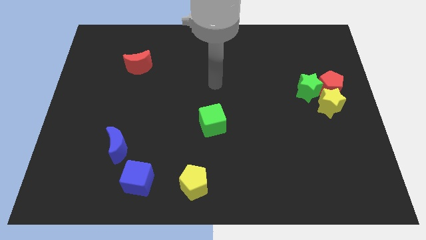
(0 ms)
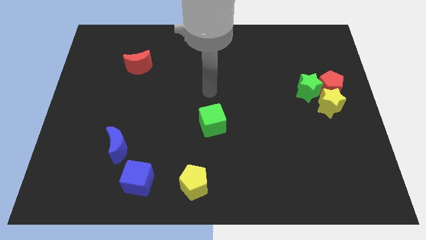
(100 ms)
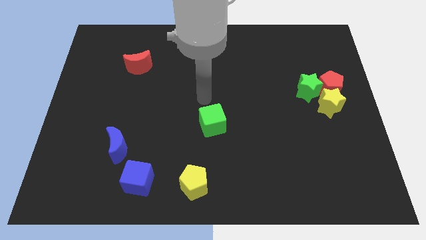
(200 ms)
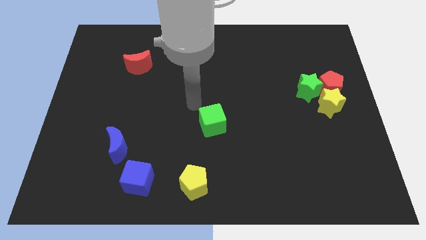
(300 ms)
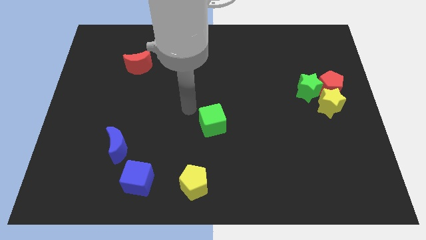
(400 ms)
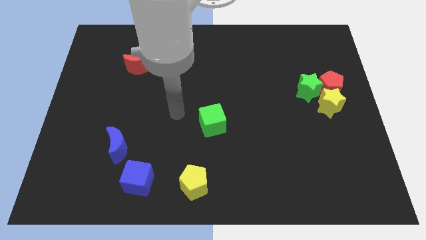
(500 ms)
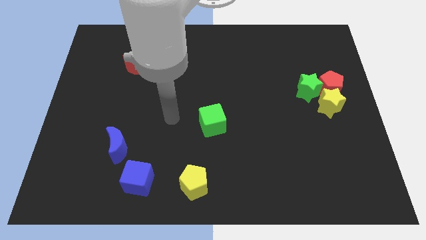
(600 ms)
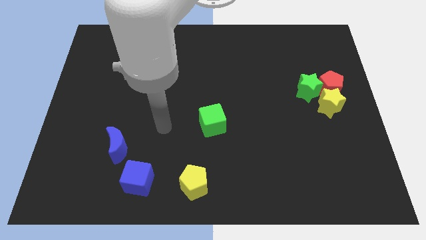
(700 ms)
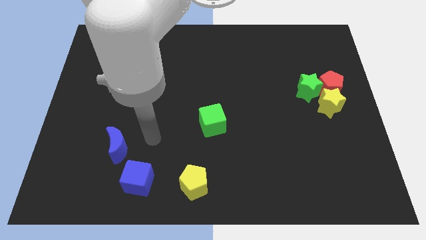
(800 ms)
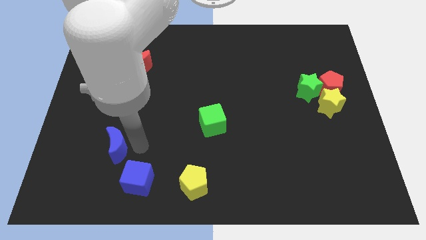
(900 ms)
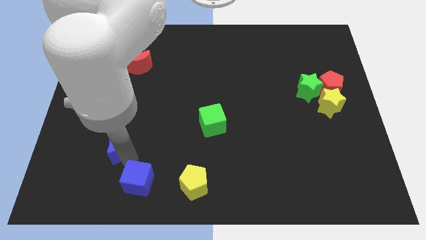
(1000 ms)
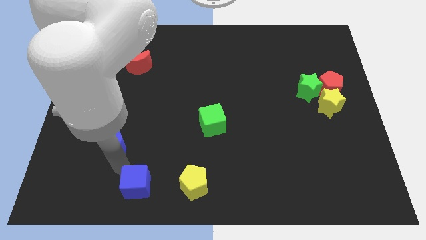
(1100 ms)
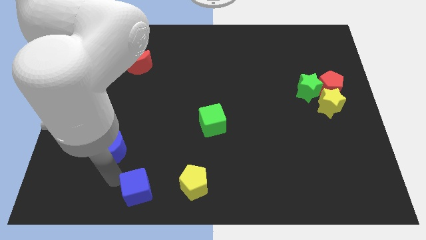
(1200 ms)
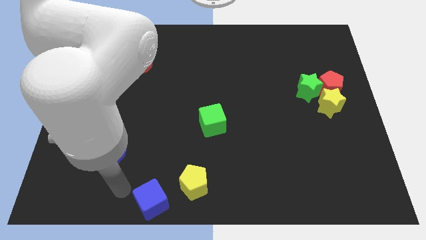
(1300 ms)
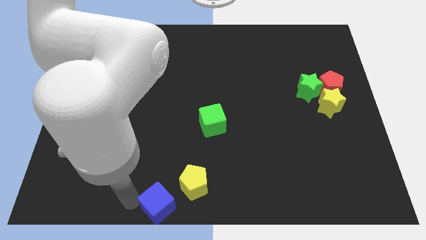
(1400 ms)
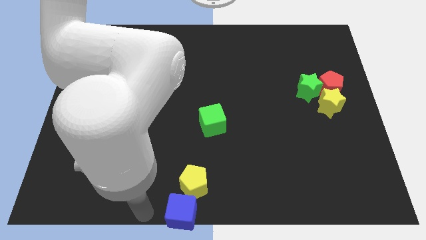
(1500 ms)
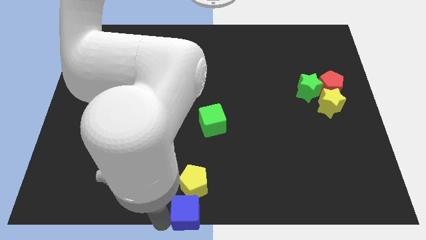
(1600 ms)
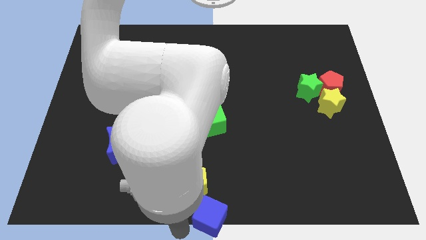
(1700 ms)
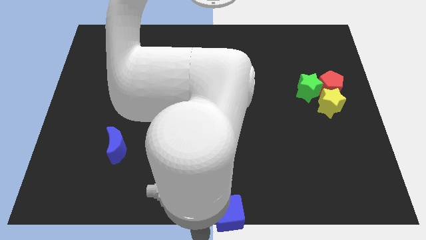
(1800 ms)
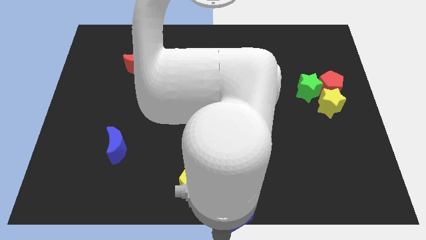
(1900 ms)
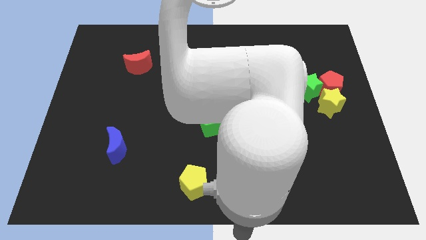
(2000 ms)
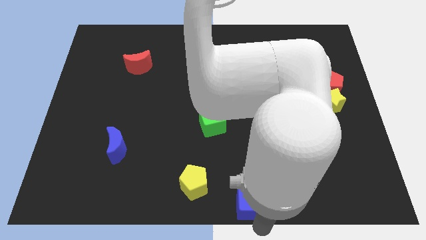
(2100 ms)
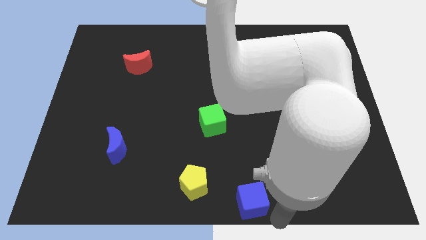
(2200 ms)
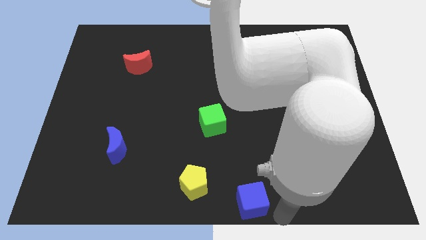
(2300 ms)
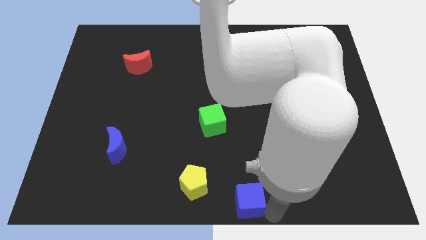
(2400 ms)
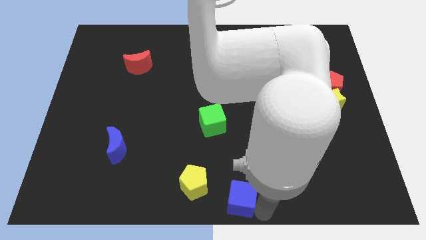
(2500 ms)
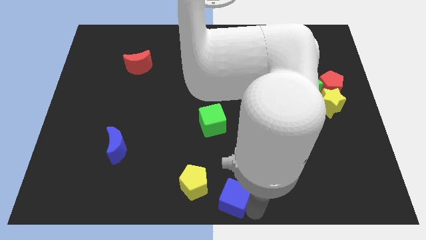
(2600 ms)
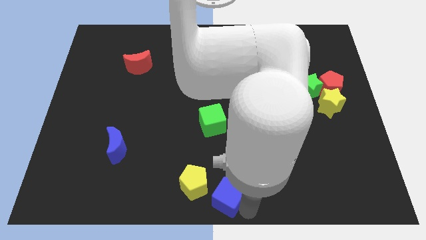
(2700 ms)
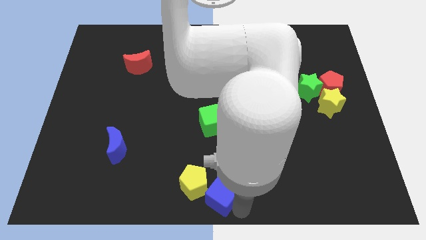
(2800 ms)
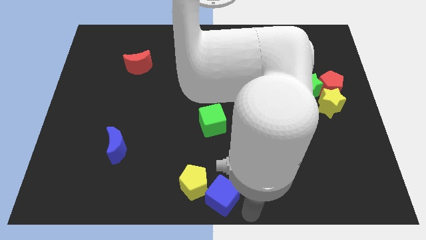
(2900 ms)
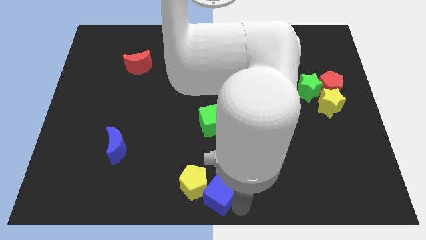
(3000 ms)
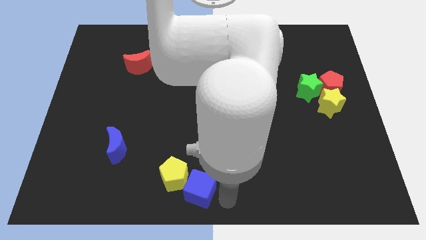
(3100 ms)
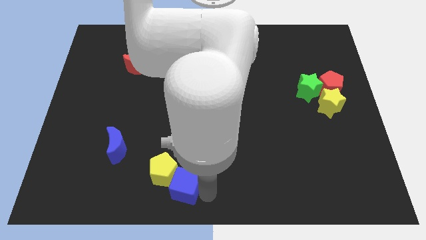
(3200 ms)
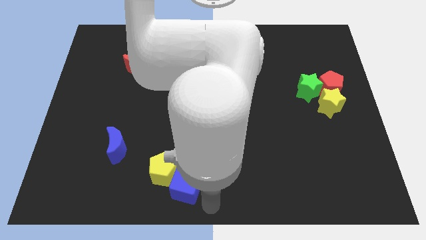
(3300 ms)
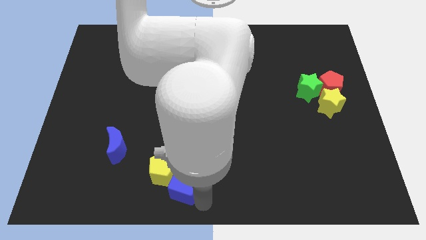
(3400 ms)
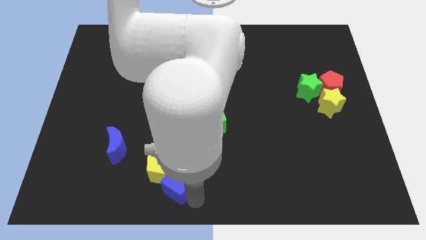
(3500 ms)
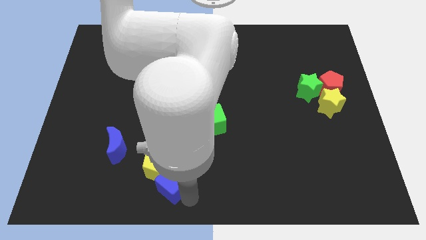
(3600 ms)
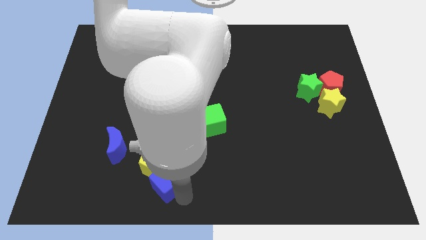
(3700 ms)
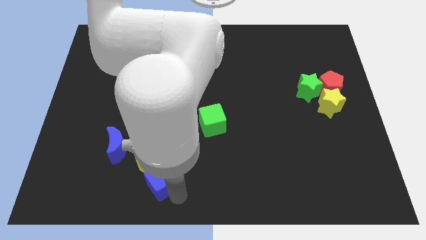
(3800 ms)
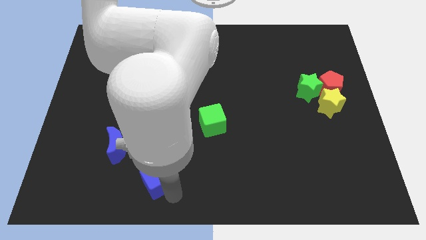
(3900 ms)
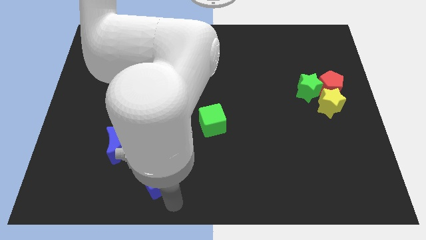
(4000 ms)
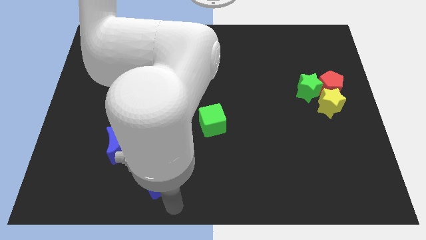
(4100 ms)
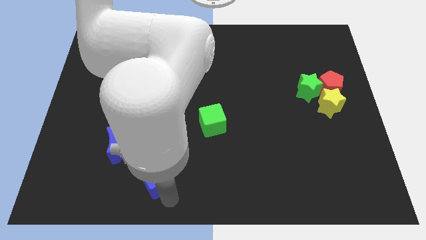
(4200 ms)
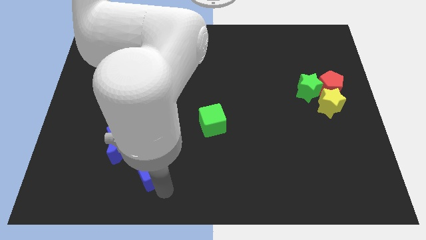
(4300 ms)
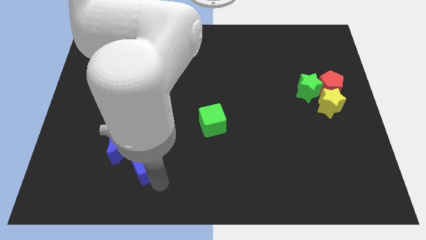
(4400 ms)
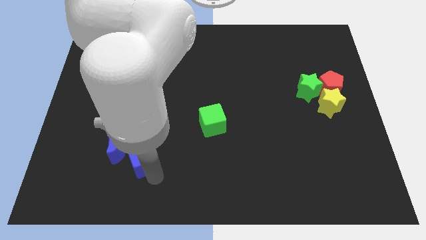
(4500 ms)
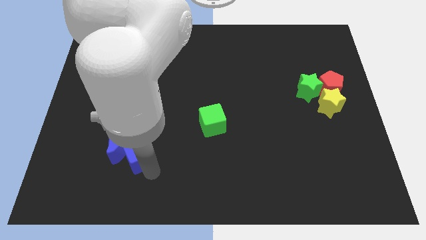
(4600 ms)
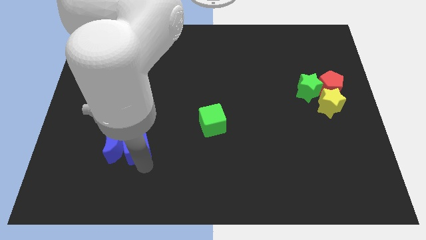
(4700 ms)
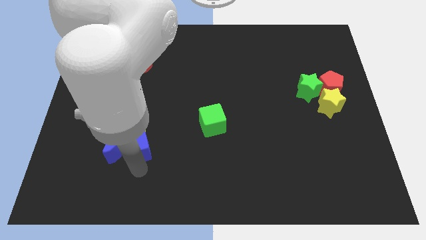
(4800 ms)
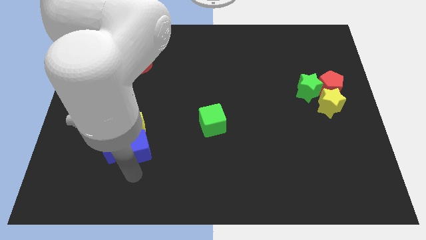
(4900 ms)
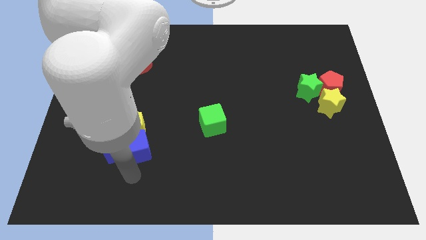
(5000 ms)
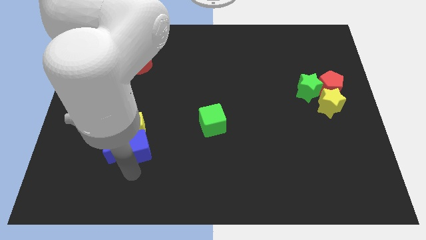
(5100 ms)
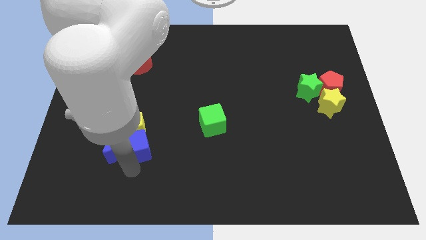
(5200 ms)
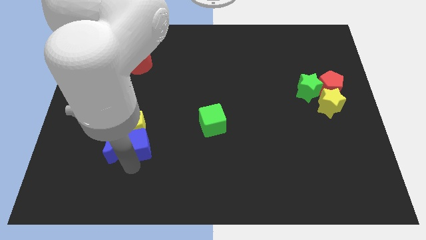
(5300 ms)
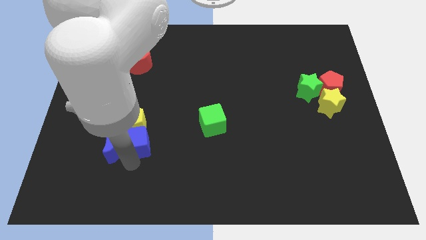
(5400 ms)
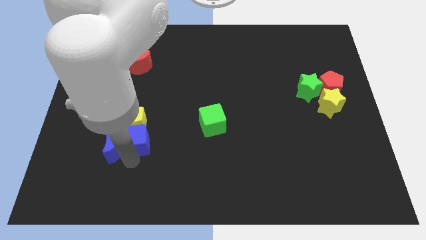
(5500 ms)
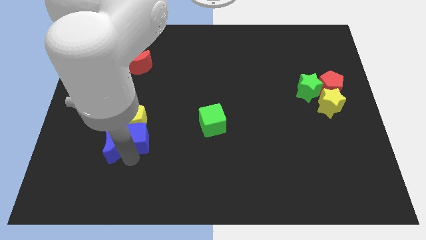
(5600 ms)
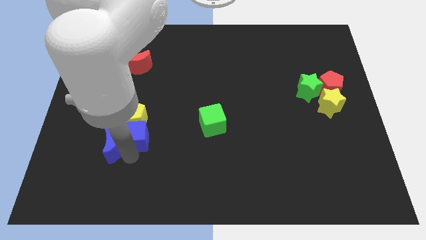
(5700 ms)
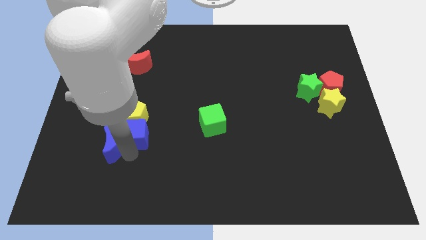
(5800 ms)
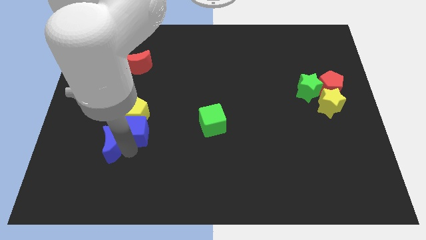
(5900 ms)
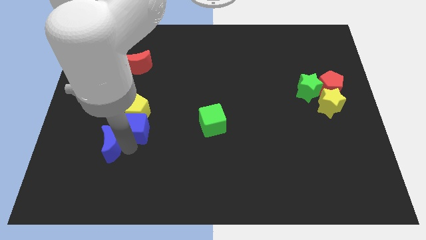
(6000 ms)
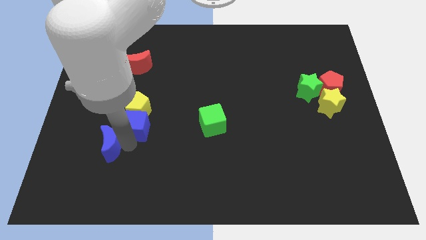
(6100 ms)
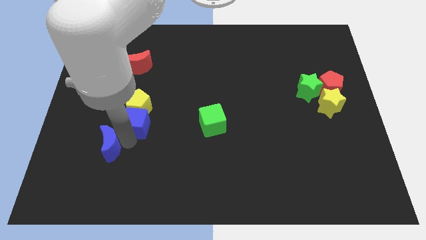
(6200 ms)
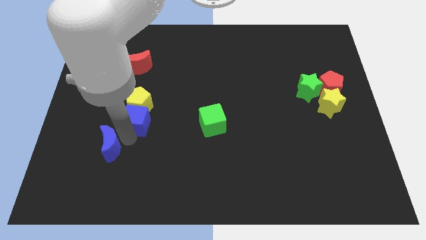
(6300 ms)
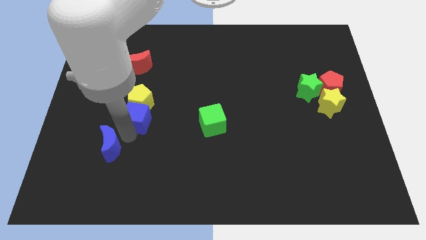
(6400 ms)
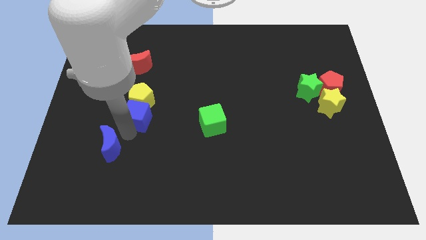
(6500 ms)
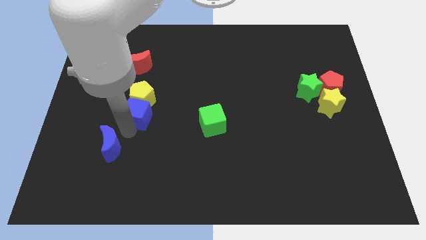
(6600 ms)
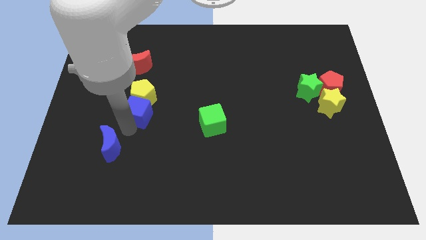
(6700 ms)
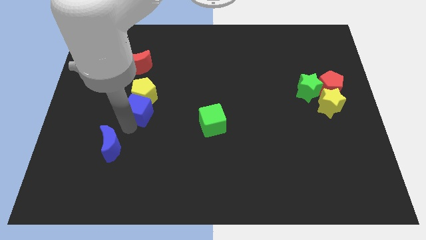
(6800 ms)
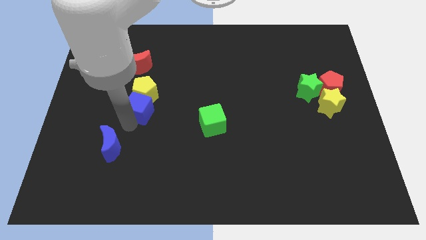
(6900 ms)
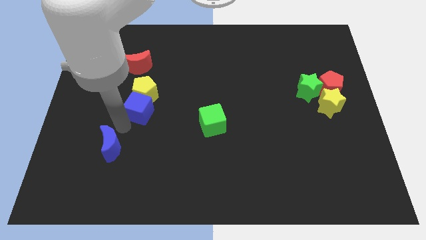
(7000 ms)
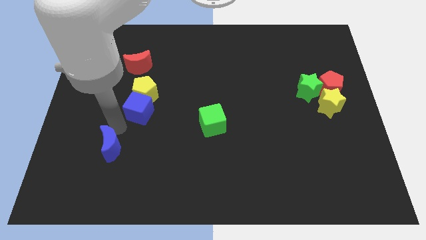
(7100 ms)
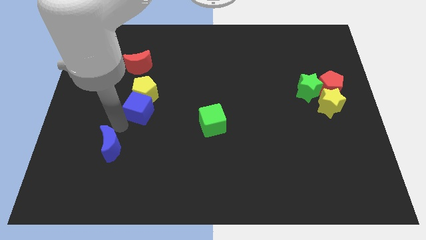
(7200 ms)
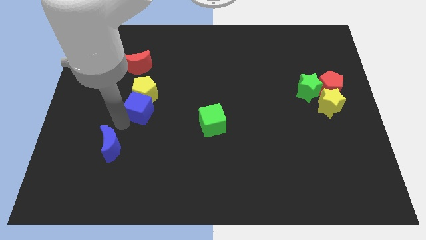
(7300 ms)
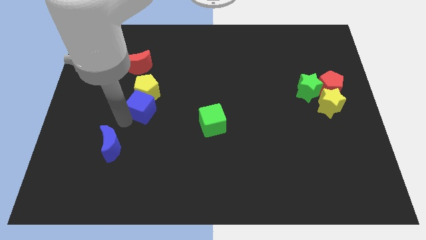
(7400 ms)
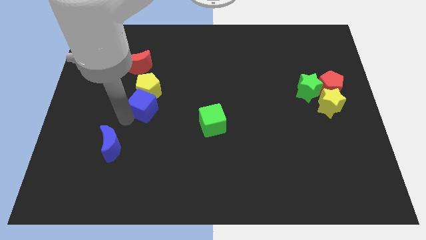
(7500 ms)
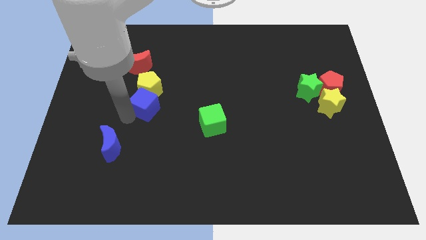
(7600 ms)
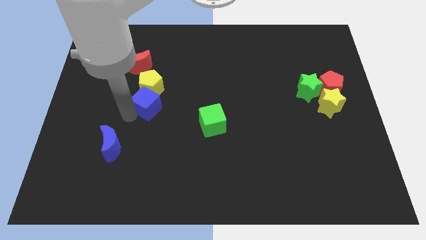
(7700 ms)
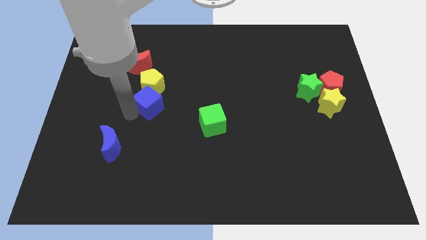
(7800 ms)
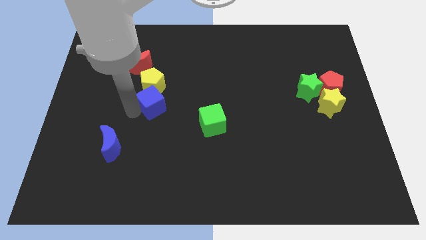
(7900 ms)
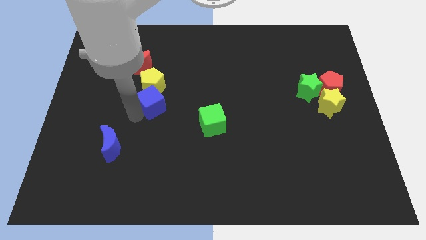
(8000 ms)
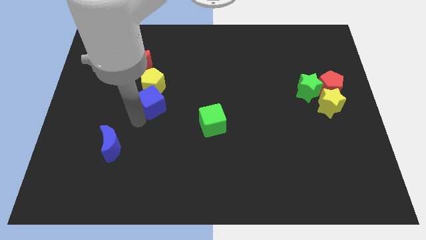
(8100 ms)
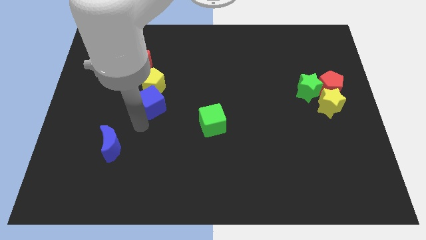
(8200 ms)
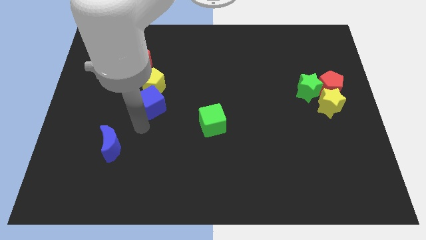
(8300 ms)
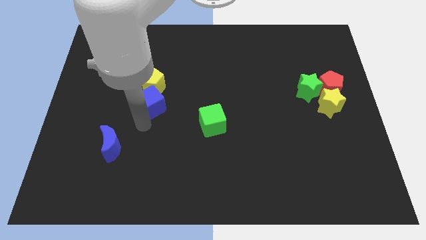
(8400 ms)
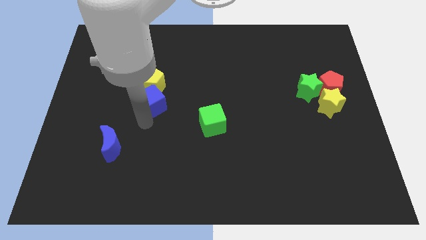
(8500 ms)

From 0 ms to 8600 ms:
move the blue cube upwards
